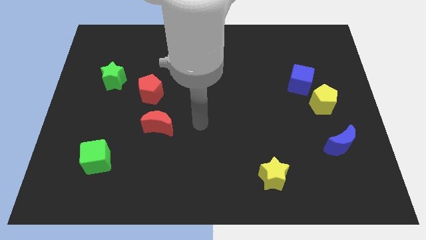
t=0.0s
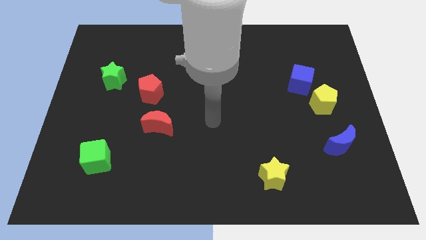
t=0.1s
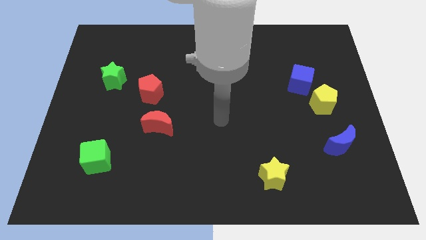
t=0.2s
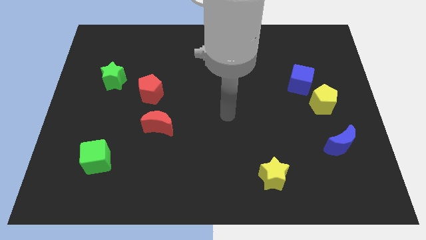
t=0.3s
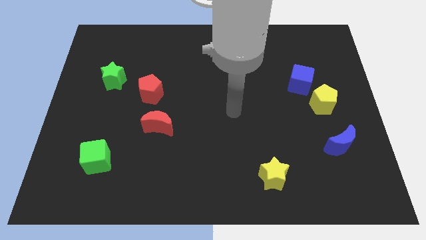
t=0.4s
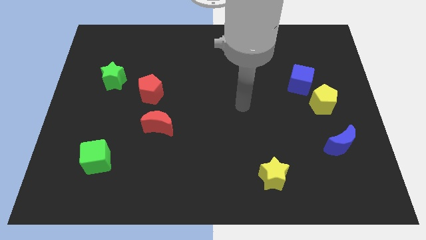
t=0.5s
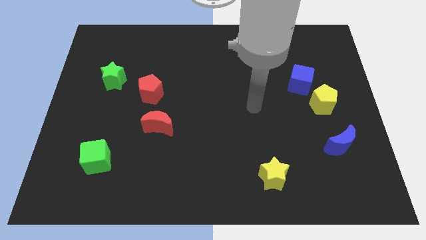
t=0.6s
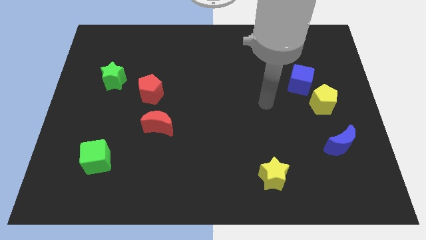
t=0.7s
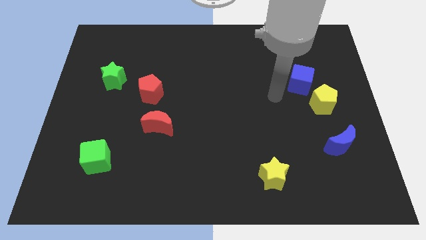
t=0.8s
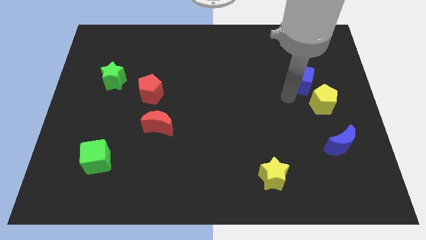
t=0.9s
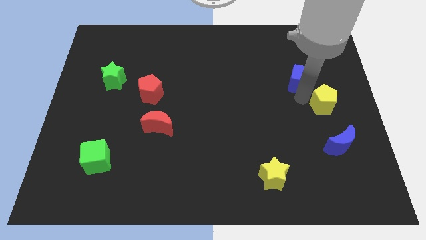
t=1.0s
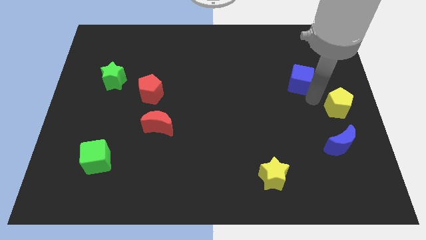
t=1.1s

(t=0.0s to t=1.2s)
move the blue cube away from the yellow pentagon

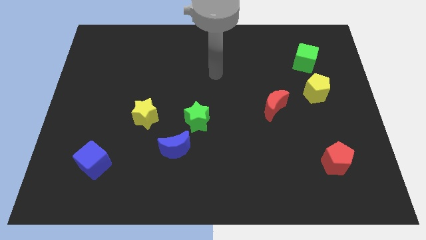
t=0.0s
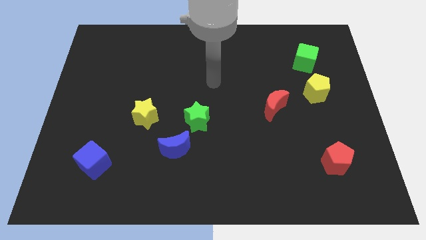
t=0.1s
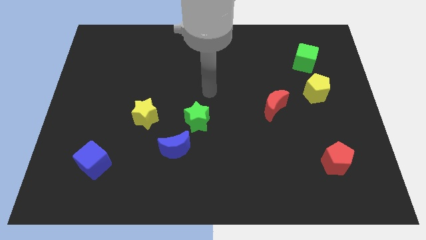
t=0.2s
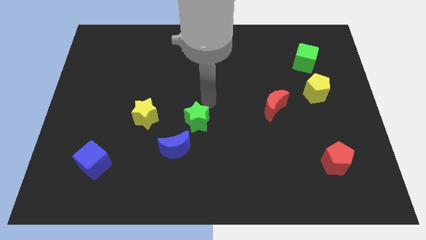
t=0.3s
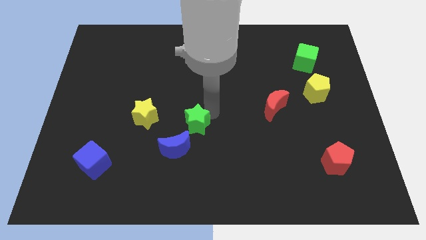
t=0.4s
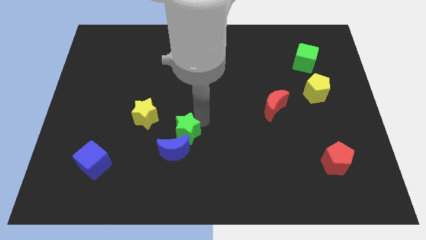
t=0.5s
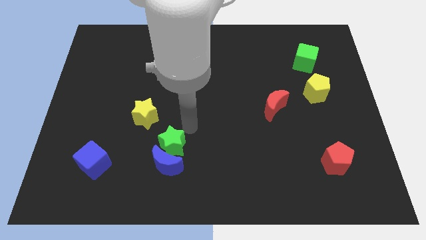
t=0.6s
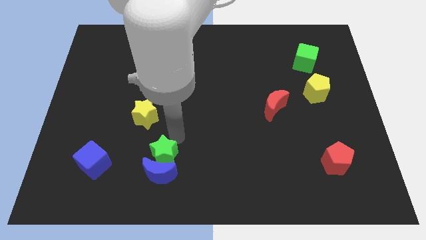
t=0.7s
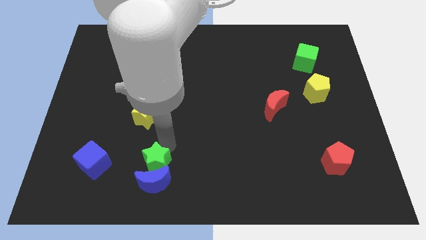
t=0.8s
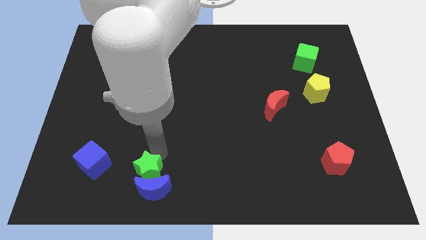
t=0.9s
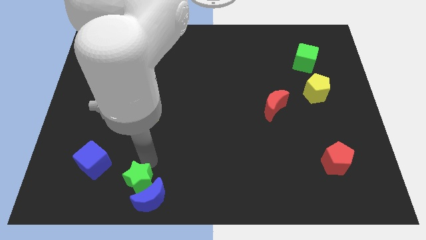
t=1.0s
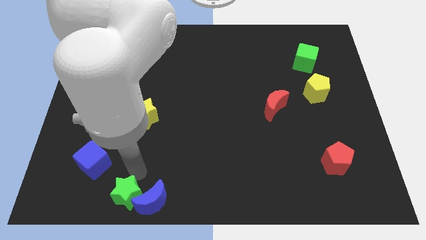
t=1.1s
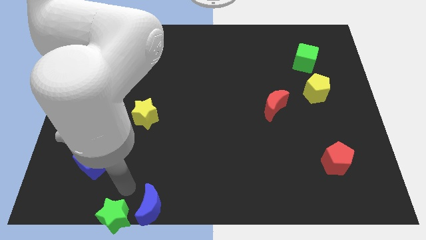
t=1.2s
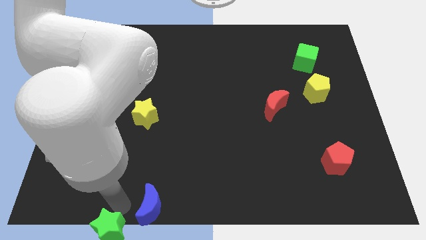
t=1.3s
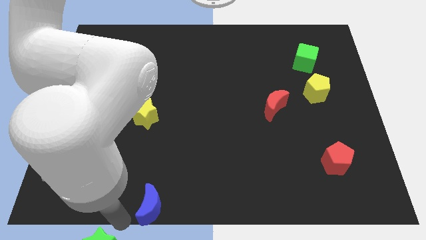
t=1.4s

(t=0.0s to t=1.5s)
move the blue moon away from the green star

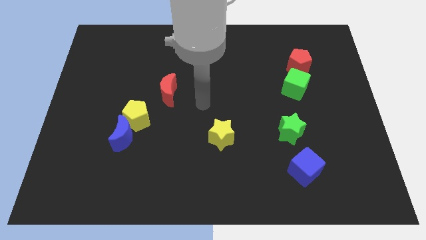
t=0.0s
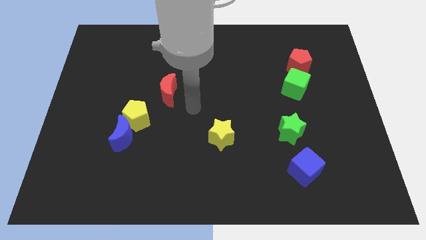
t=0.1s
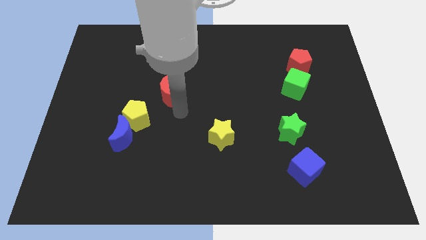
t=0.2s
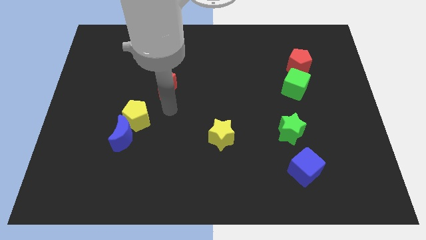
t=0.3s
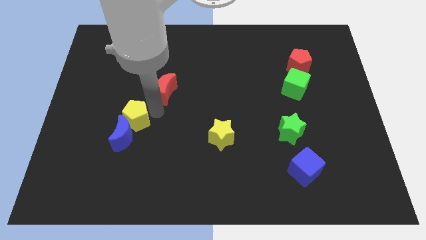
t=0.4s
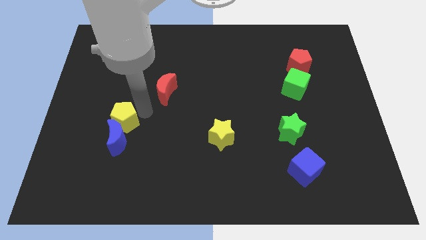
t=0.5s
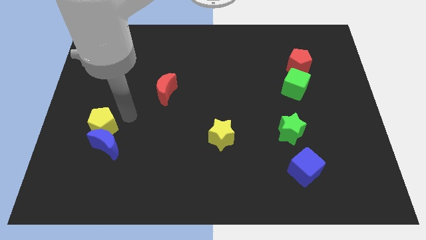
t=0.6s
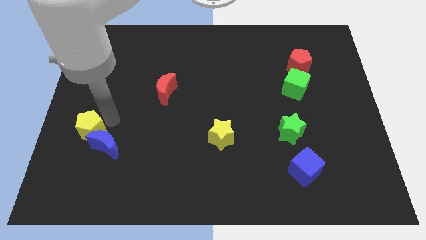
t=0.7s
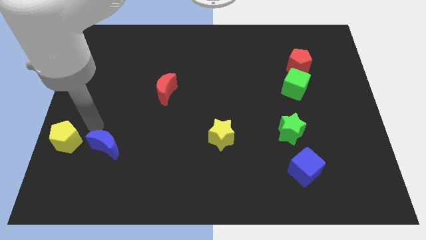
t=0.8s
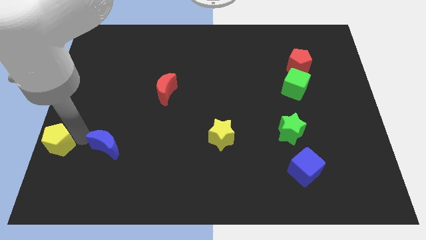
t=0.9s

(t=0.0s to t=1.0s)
move the blue moon away from the yellow pentagon

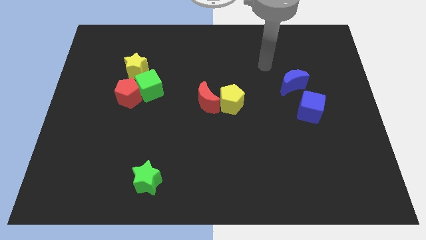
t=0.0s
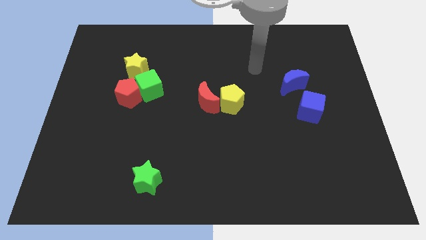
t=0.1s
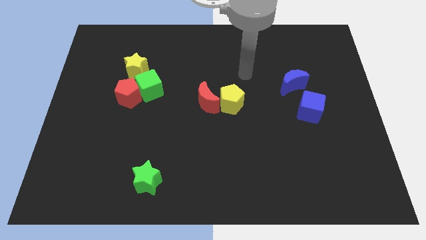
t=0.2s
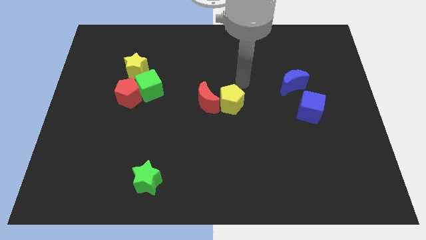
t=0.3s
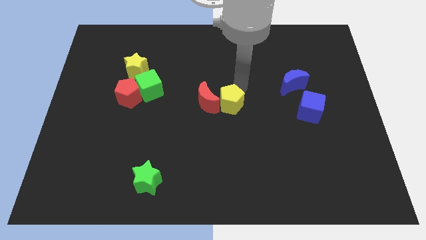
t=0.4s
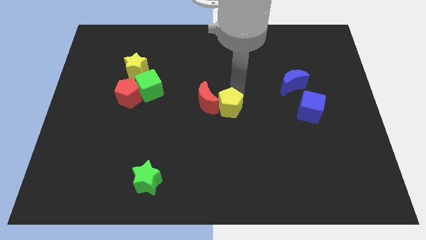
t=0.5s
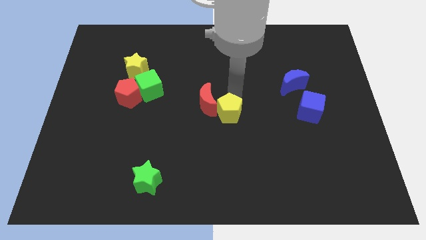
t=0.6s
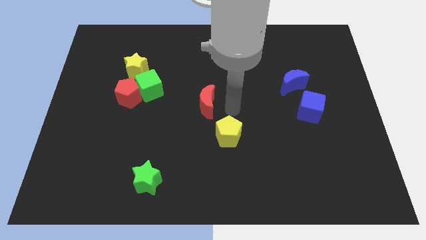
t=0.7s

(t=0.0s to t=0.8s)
move the red moon away from the yellow pentagon

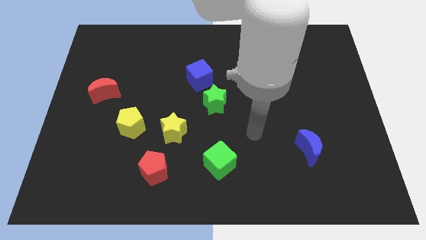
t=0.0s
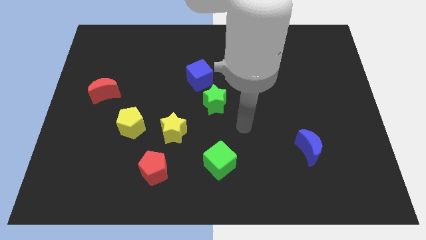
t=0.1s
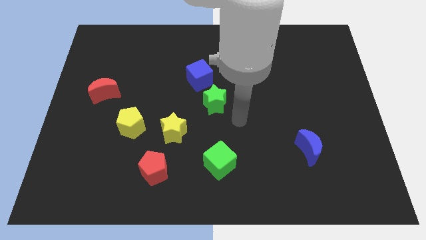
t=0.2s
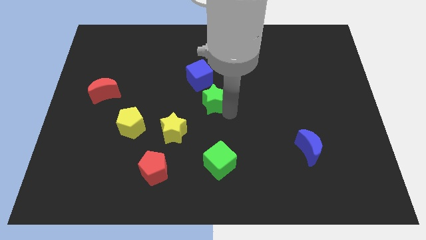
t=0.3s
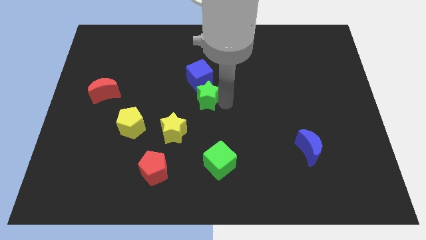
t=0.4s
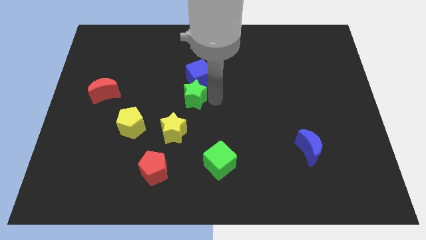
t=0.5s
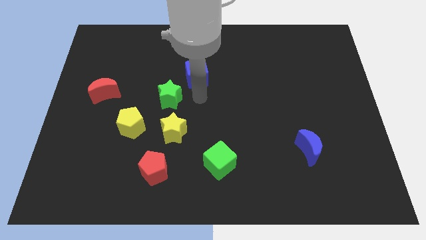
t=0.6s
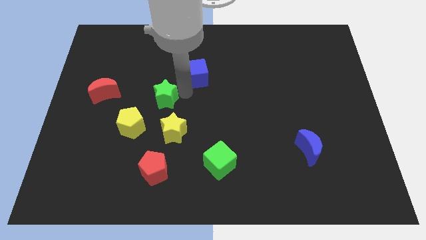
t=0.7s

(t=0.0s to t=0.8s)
move the blue cube away from the green star

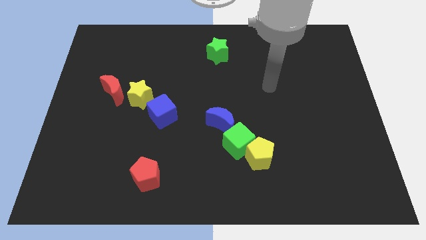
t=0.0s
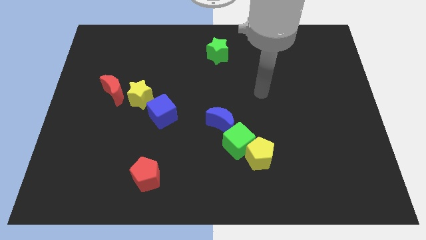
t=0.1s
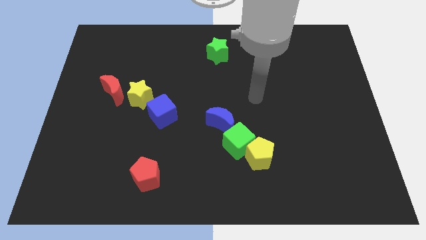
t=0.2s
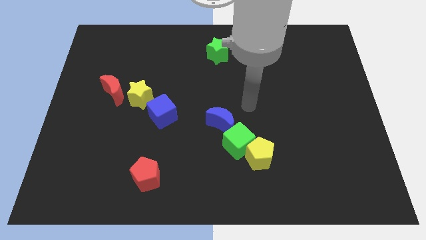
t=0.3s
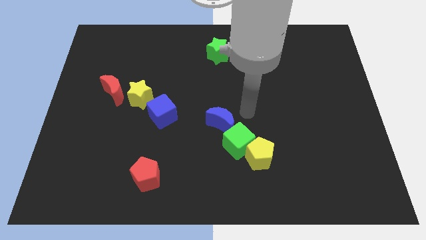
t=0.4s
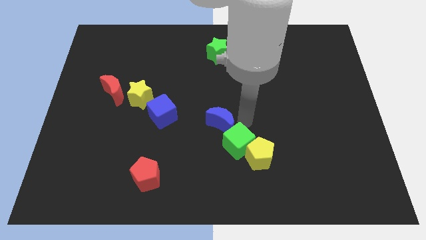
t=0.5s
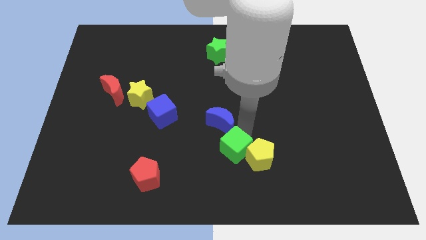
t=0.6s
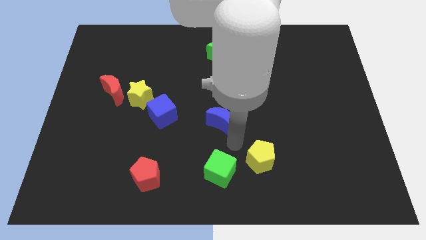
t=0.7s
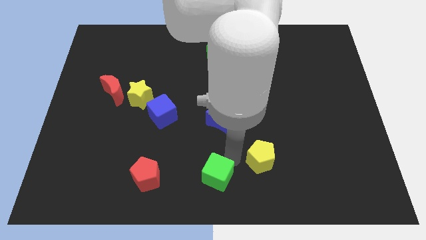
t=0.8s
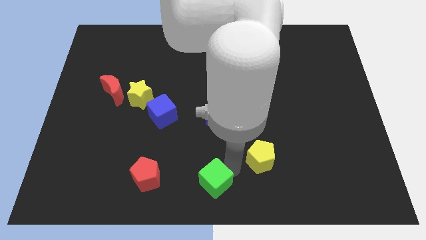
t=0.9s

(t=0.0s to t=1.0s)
pull the yellow pentagon apart from the green cube

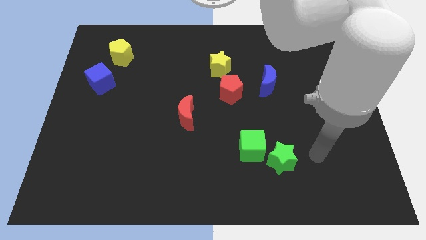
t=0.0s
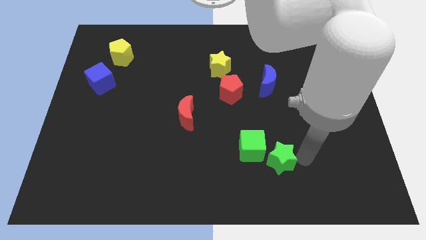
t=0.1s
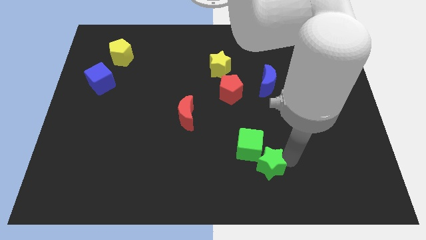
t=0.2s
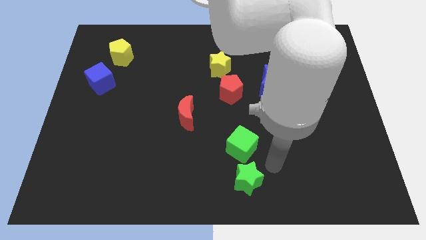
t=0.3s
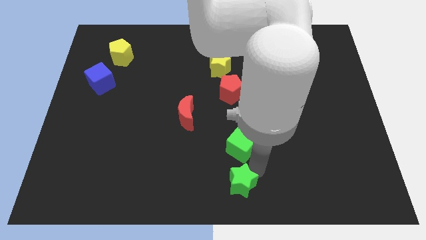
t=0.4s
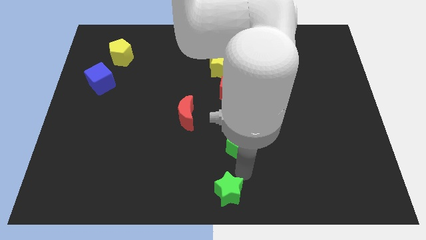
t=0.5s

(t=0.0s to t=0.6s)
pull the green cube apart from the green star

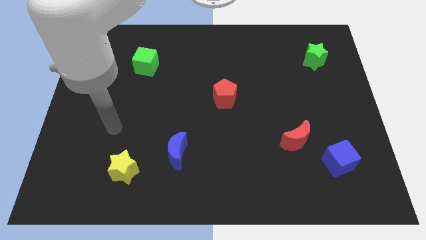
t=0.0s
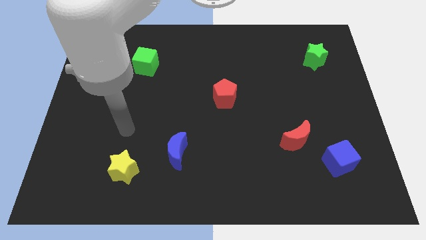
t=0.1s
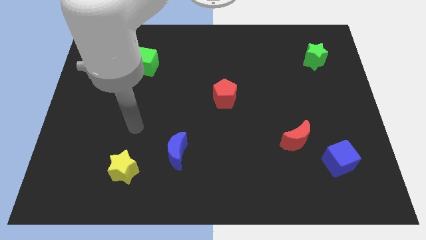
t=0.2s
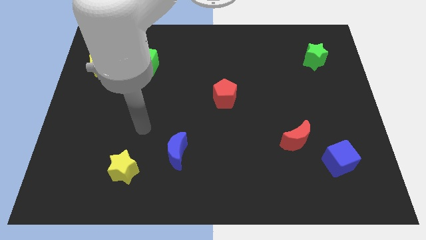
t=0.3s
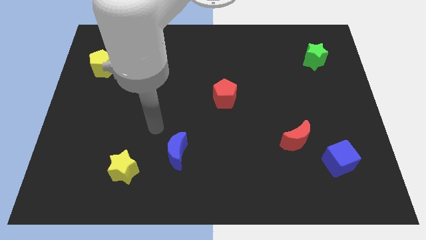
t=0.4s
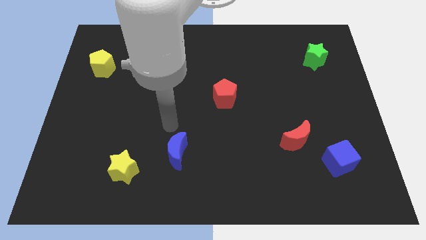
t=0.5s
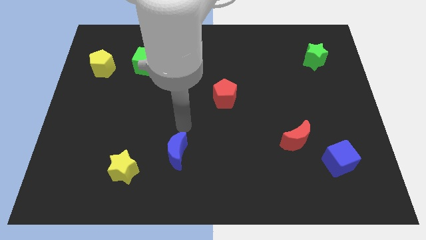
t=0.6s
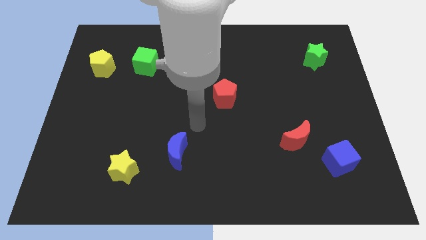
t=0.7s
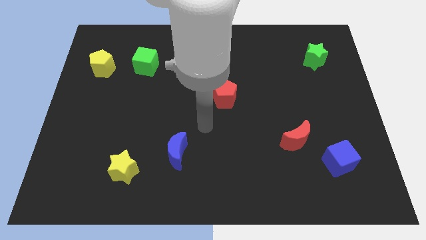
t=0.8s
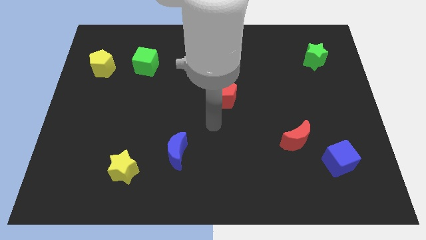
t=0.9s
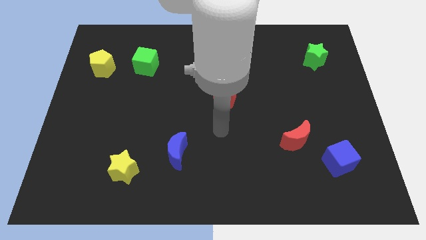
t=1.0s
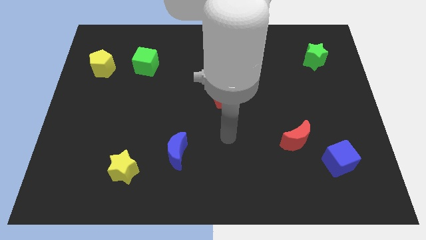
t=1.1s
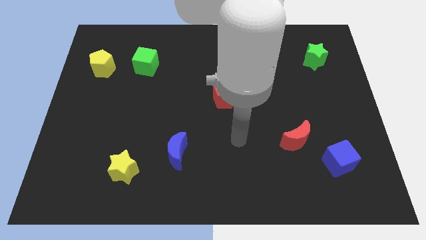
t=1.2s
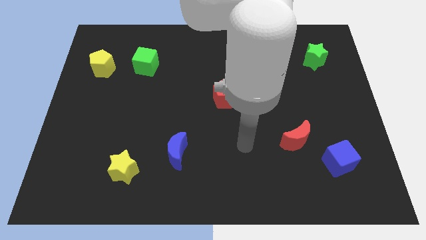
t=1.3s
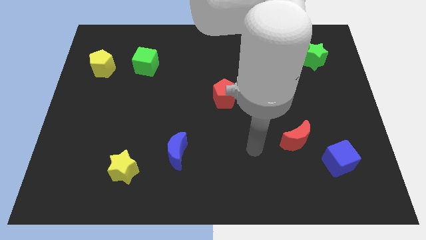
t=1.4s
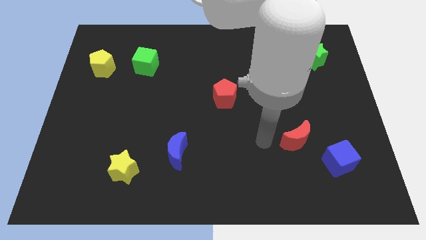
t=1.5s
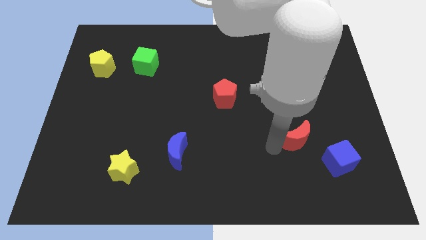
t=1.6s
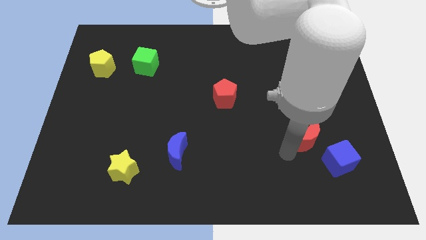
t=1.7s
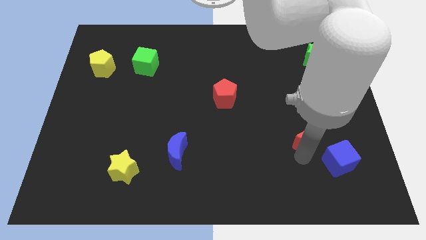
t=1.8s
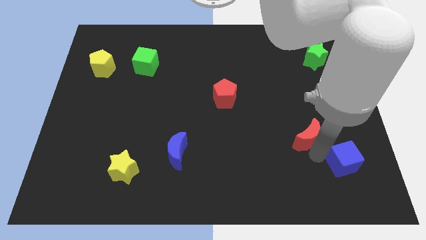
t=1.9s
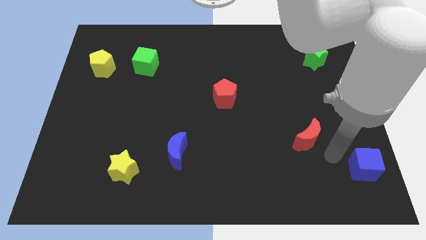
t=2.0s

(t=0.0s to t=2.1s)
move the red moon away from the blue cube

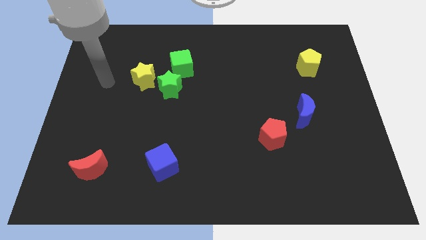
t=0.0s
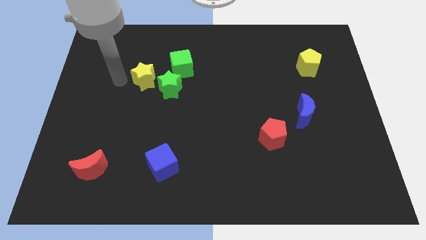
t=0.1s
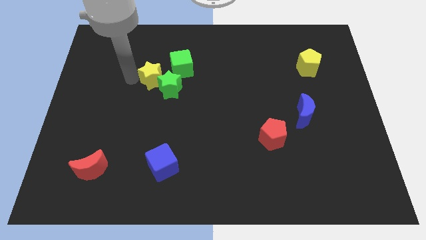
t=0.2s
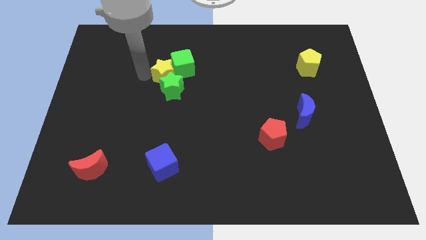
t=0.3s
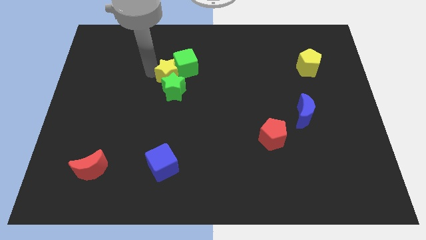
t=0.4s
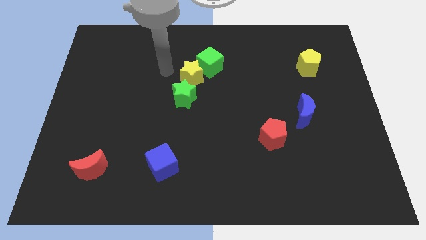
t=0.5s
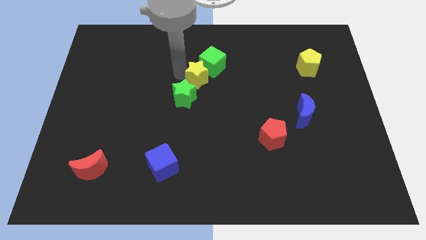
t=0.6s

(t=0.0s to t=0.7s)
move the green star away from the yellow star and green cube
